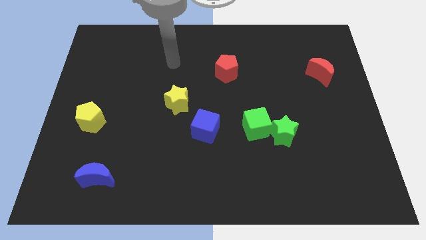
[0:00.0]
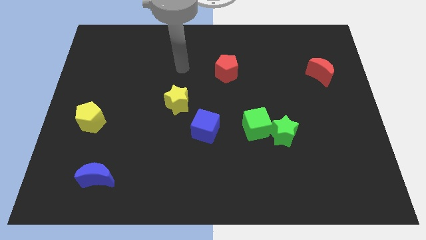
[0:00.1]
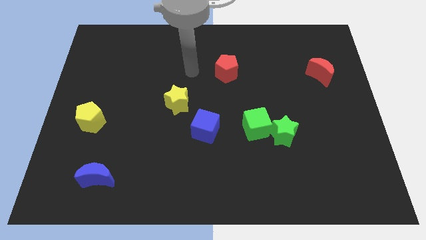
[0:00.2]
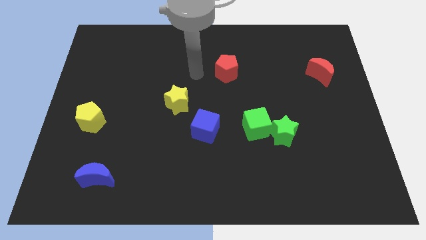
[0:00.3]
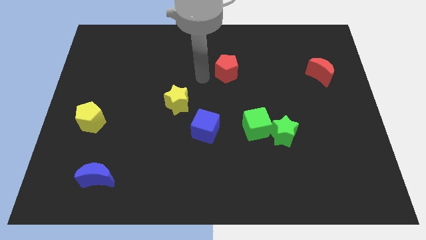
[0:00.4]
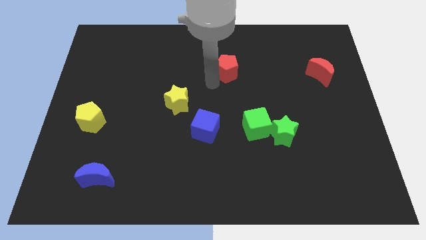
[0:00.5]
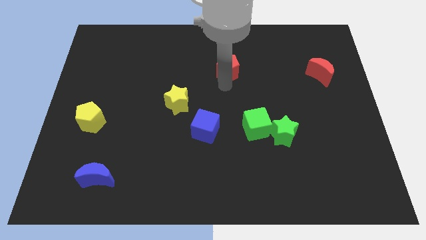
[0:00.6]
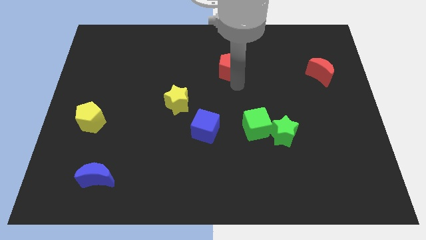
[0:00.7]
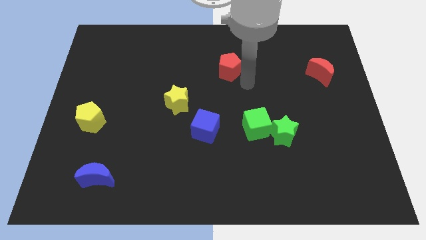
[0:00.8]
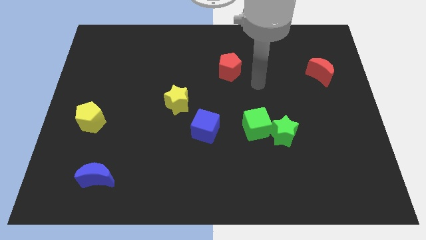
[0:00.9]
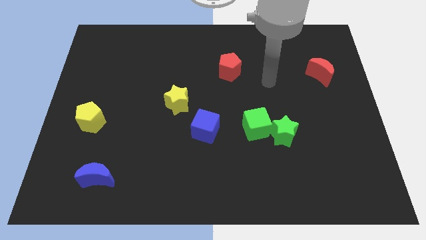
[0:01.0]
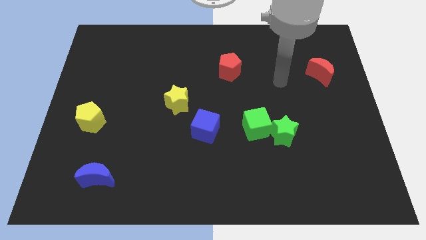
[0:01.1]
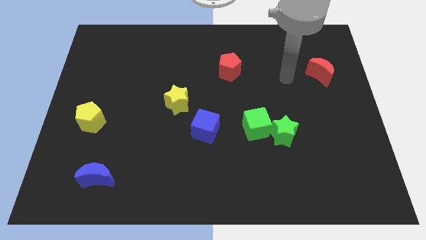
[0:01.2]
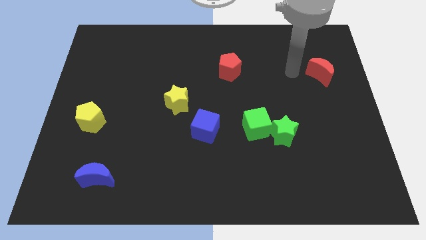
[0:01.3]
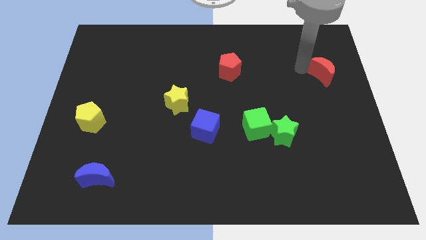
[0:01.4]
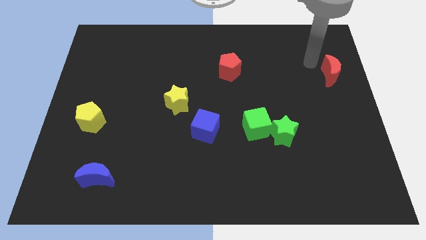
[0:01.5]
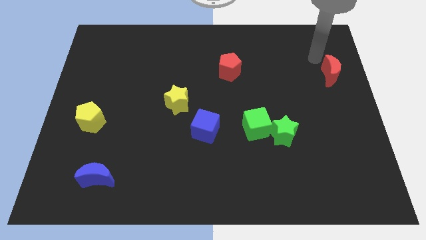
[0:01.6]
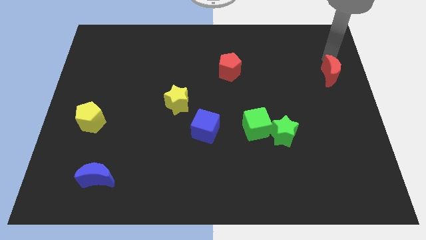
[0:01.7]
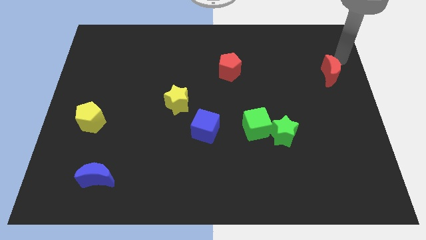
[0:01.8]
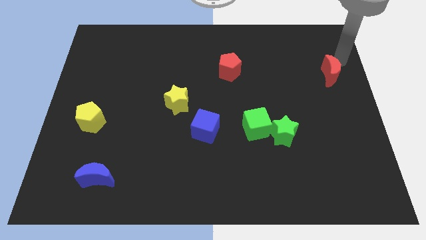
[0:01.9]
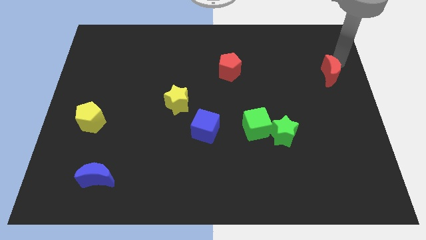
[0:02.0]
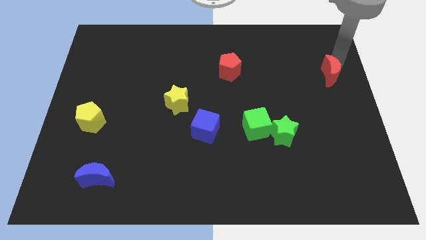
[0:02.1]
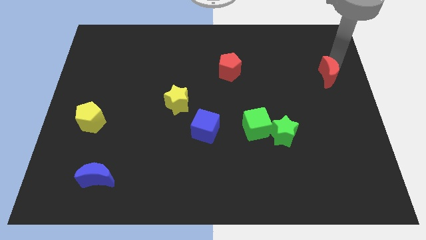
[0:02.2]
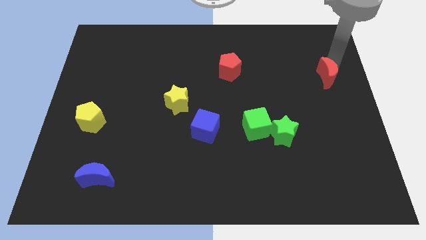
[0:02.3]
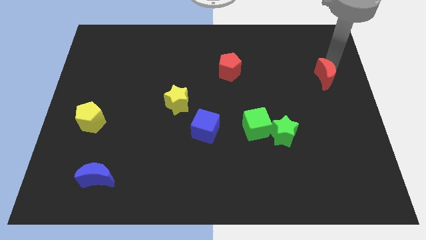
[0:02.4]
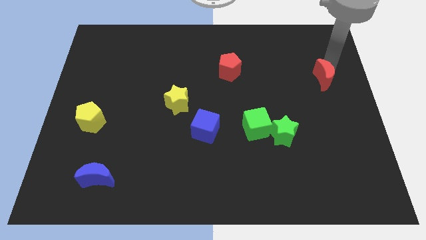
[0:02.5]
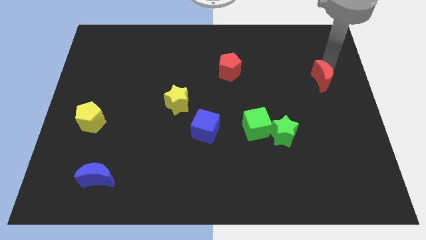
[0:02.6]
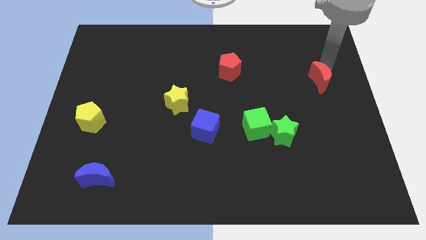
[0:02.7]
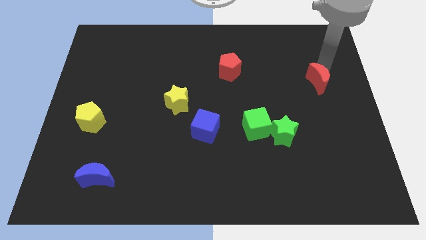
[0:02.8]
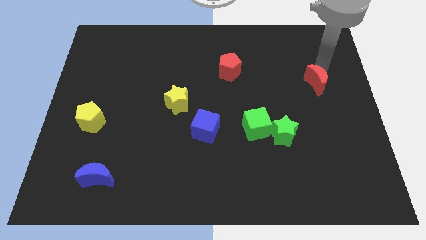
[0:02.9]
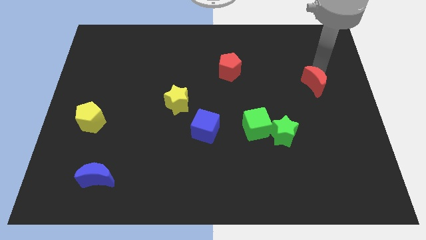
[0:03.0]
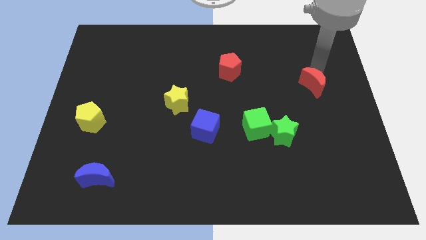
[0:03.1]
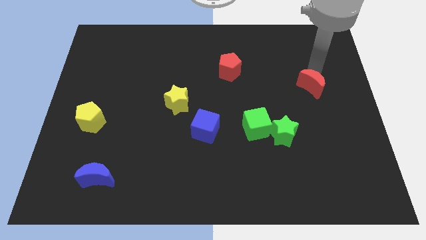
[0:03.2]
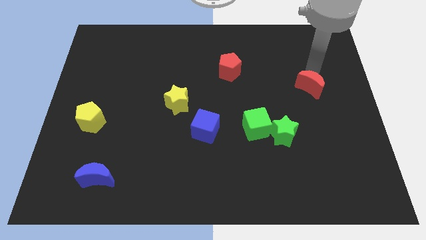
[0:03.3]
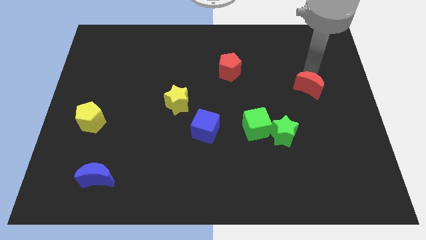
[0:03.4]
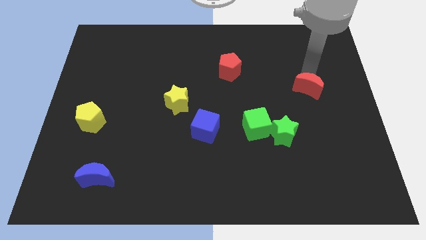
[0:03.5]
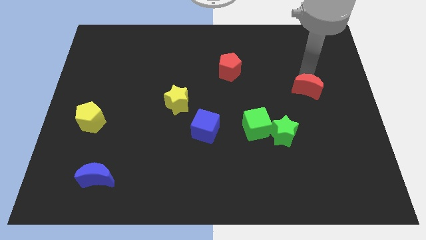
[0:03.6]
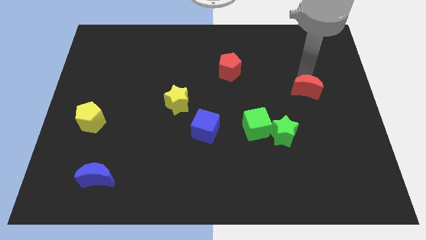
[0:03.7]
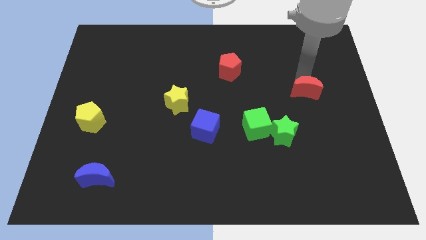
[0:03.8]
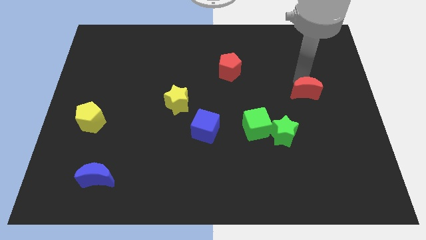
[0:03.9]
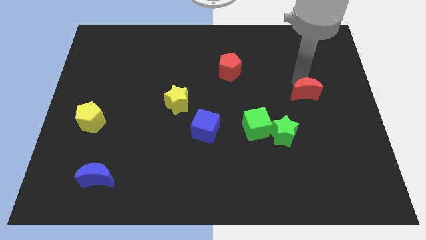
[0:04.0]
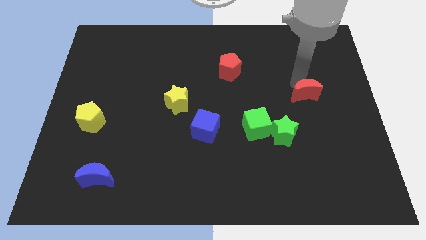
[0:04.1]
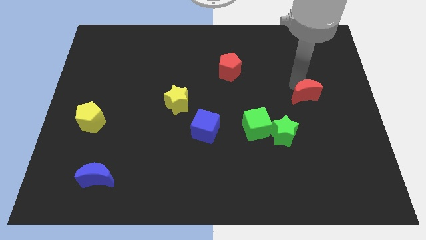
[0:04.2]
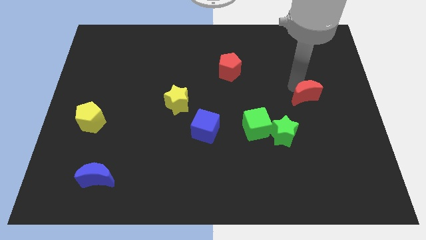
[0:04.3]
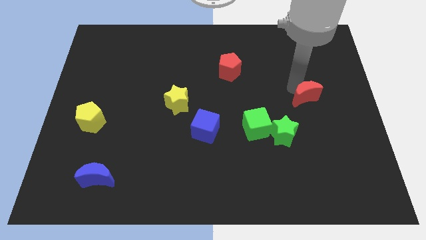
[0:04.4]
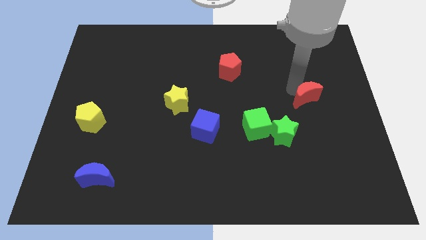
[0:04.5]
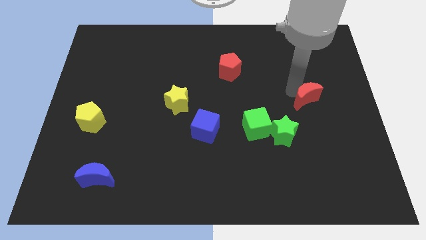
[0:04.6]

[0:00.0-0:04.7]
slightly slide the red moon down

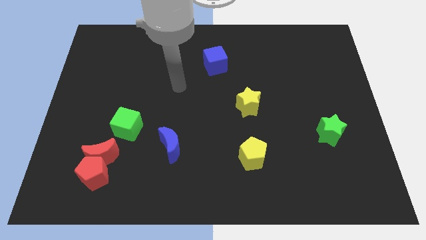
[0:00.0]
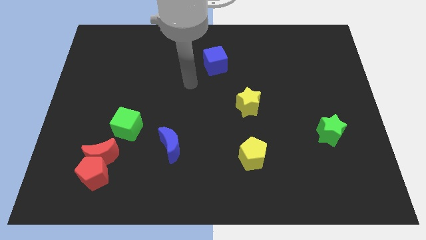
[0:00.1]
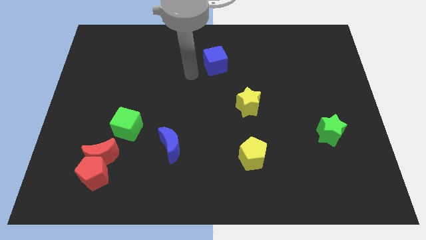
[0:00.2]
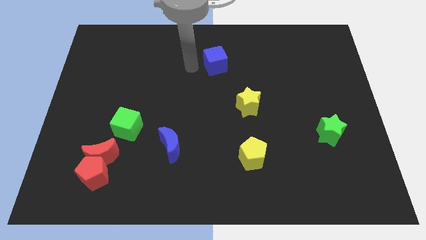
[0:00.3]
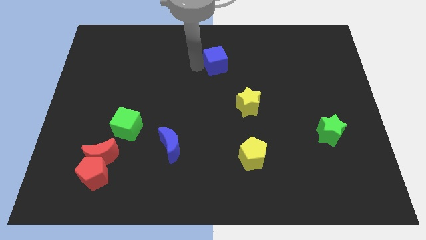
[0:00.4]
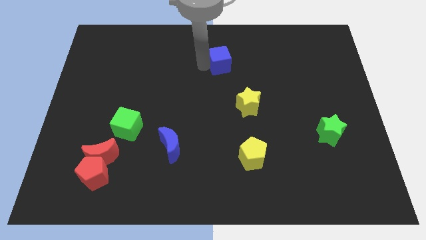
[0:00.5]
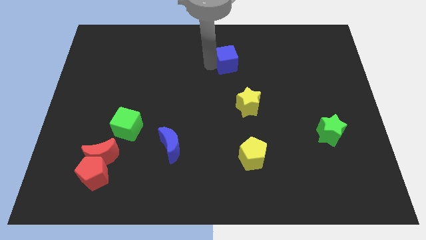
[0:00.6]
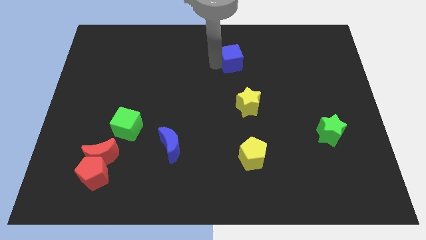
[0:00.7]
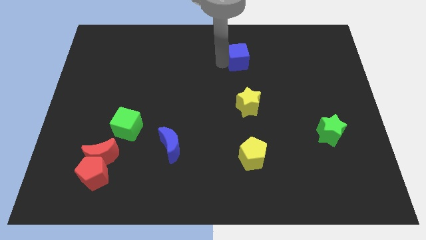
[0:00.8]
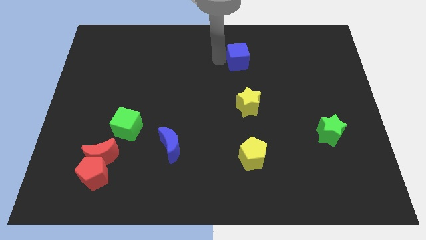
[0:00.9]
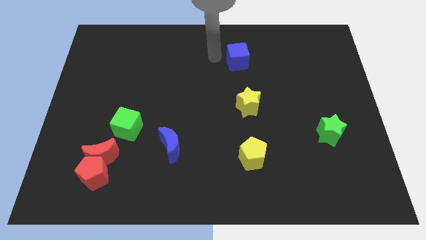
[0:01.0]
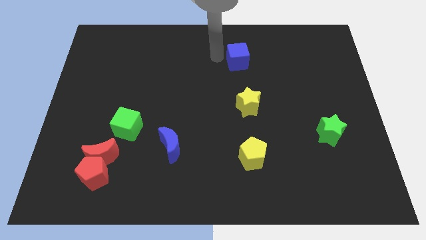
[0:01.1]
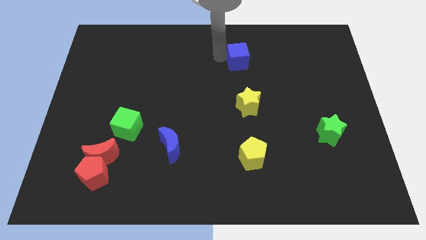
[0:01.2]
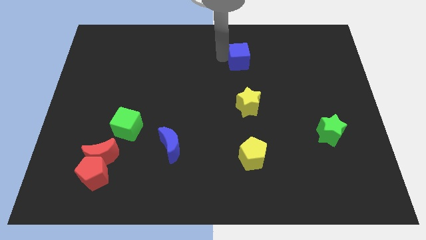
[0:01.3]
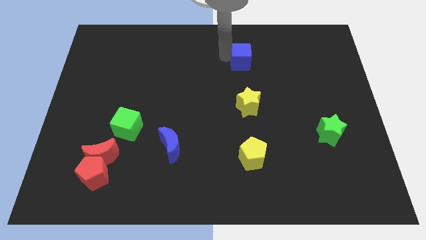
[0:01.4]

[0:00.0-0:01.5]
move the blue cube slightly to the right

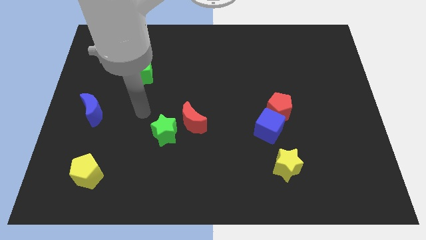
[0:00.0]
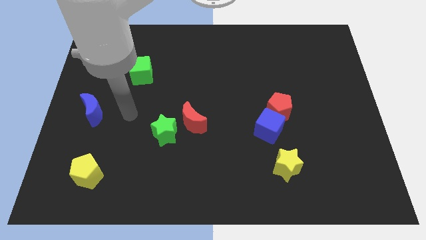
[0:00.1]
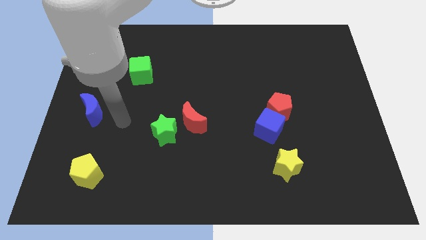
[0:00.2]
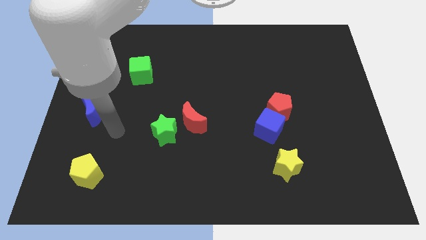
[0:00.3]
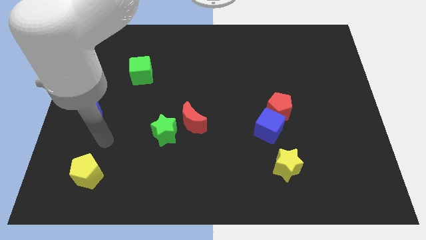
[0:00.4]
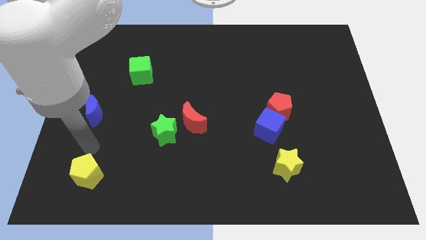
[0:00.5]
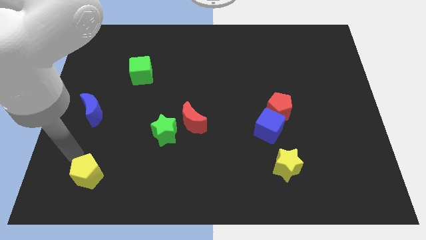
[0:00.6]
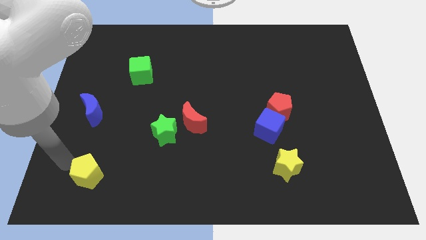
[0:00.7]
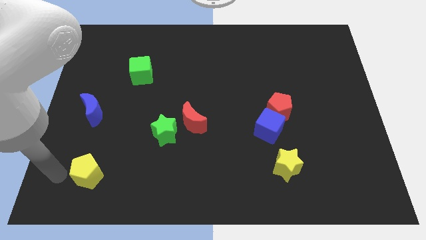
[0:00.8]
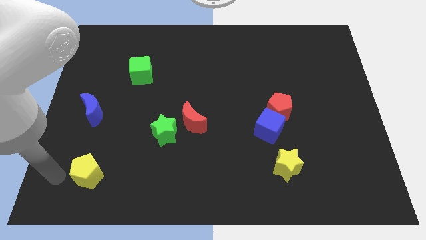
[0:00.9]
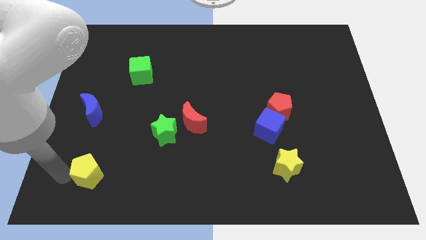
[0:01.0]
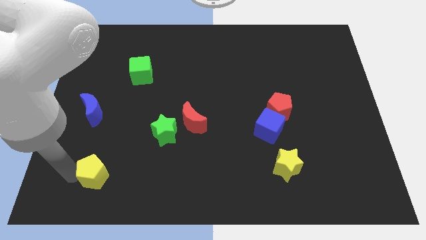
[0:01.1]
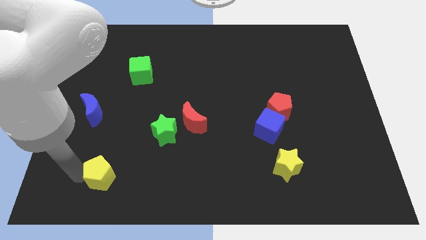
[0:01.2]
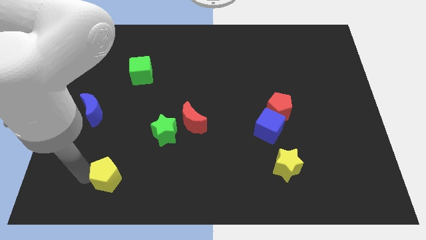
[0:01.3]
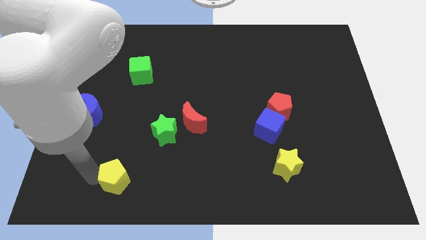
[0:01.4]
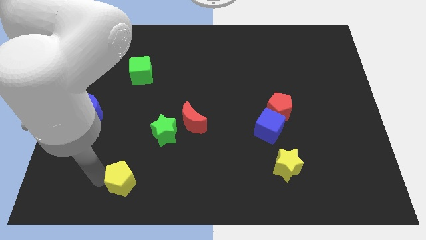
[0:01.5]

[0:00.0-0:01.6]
move the yellow pentagon a little to the right

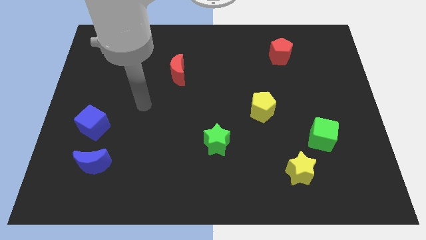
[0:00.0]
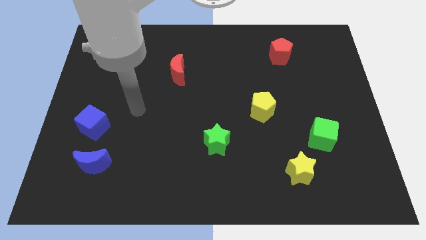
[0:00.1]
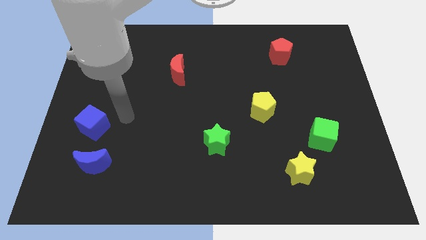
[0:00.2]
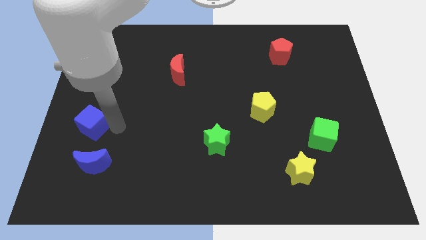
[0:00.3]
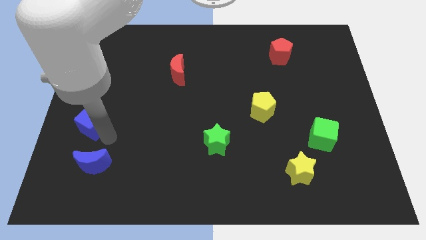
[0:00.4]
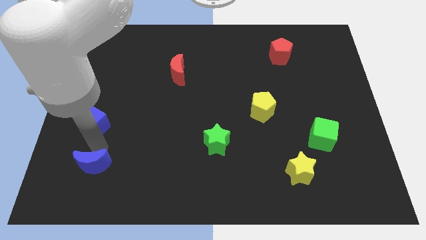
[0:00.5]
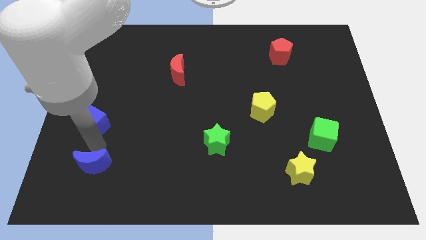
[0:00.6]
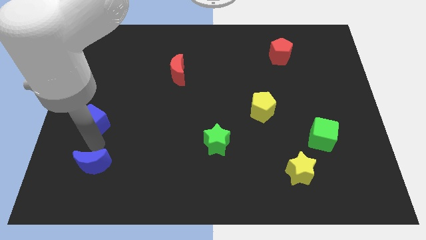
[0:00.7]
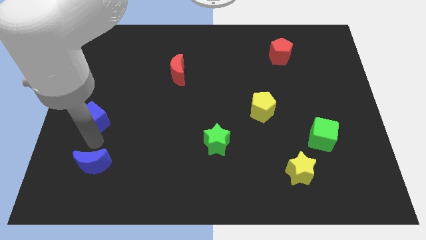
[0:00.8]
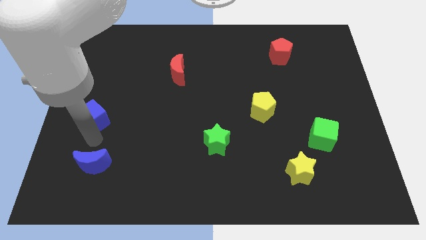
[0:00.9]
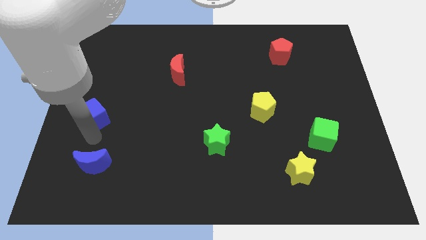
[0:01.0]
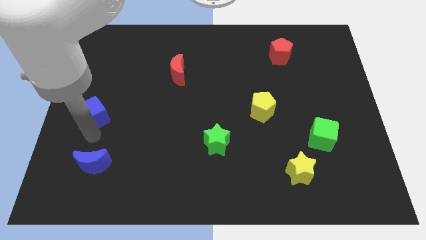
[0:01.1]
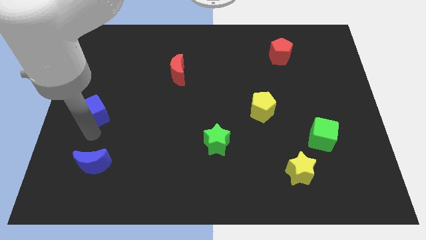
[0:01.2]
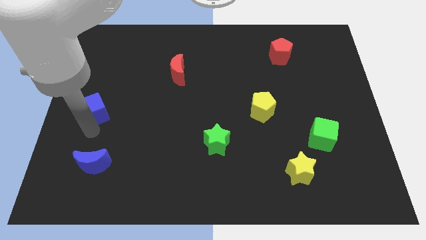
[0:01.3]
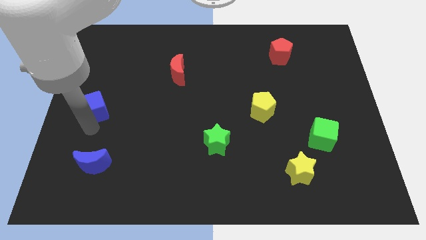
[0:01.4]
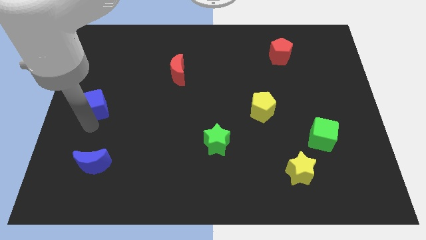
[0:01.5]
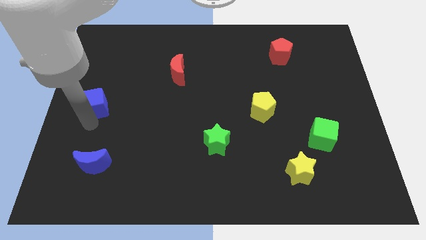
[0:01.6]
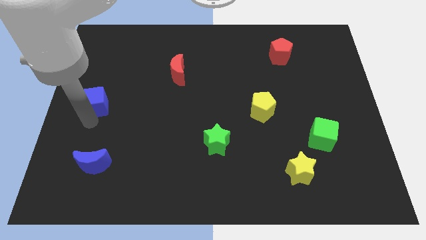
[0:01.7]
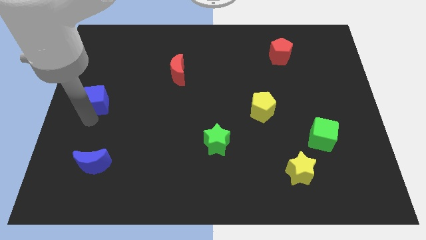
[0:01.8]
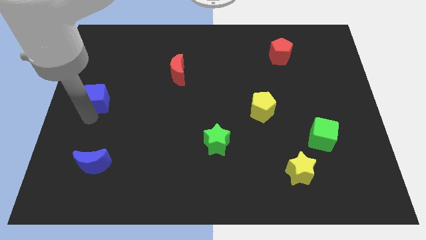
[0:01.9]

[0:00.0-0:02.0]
push the blue cube up slightly
